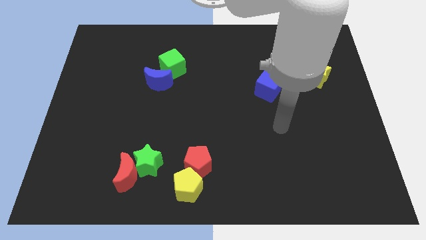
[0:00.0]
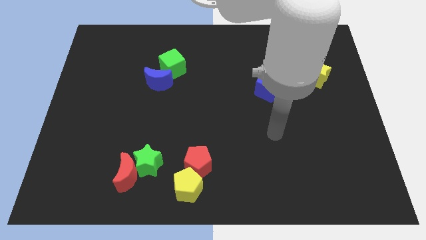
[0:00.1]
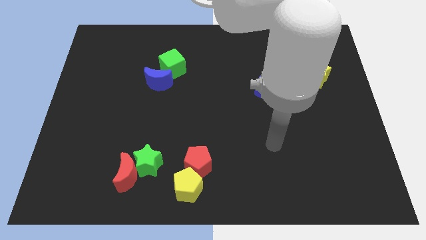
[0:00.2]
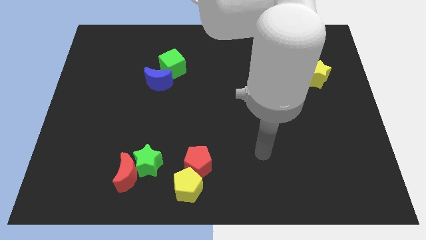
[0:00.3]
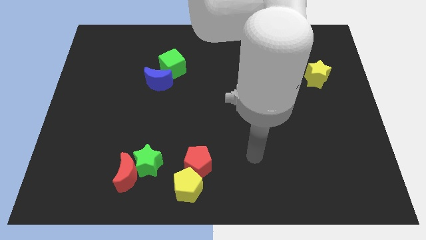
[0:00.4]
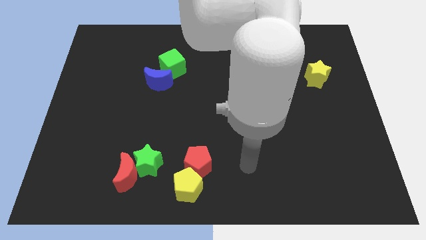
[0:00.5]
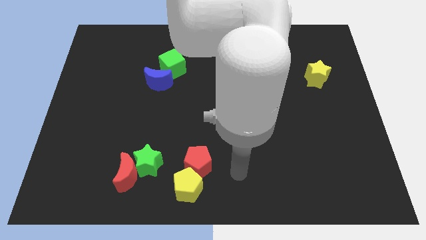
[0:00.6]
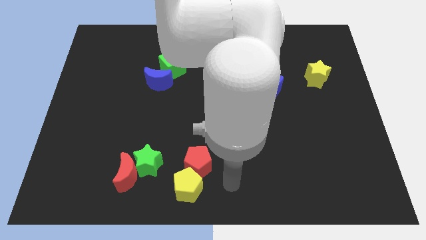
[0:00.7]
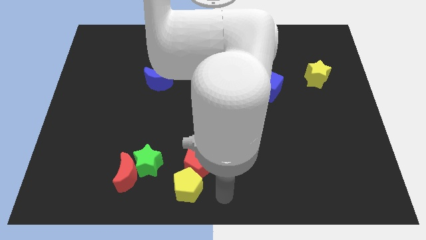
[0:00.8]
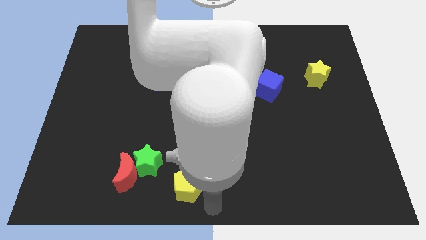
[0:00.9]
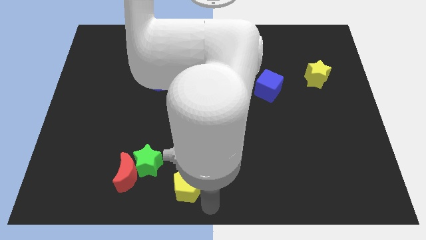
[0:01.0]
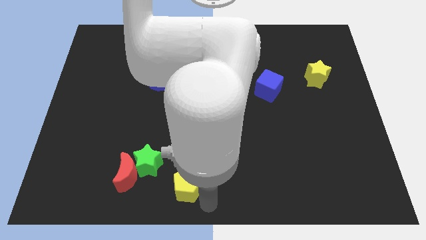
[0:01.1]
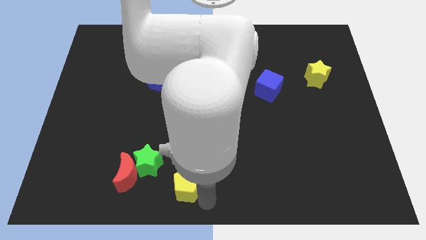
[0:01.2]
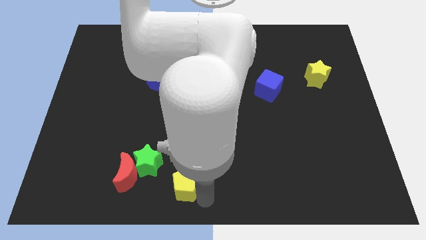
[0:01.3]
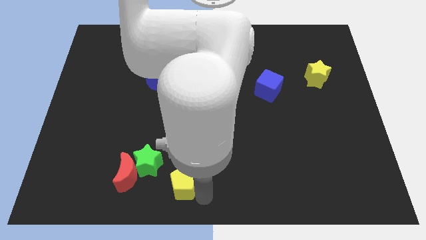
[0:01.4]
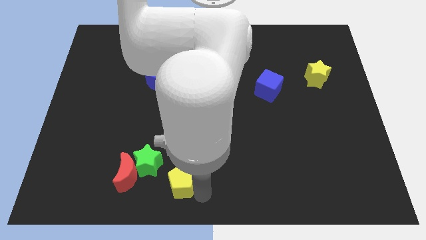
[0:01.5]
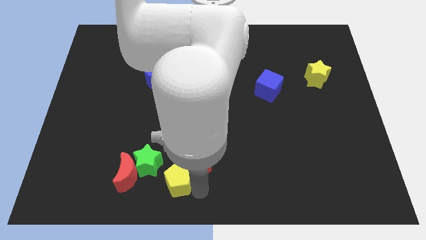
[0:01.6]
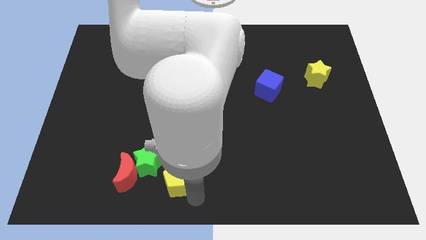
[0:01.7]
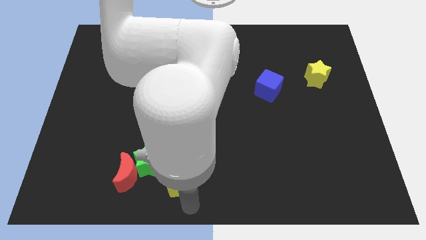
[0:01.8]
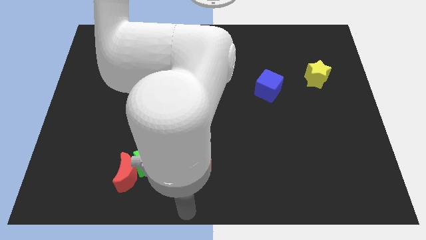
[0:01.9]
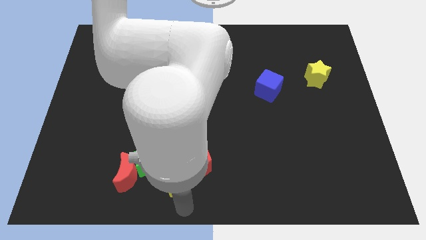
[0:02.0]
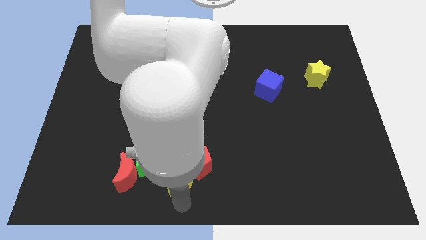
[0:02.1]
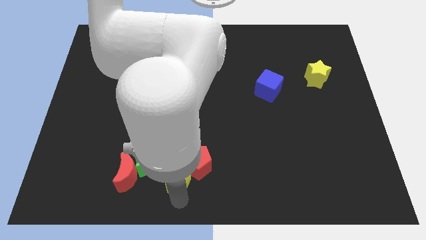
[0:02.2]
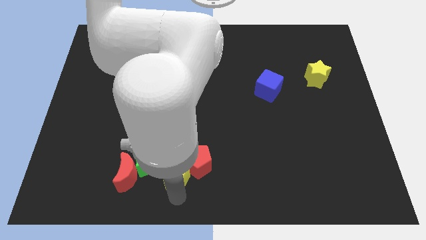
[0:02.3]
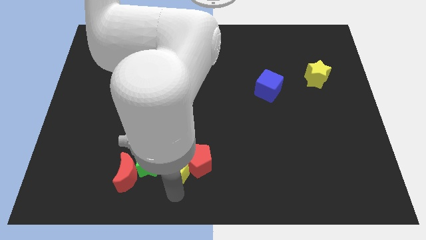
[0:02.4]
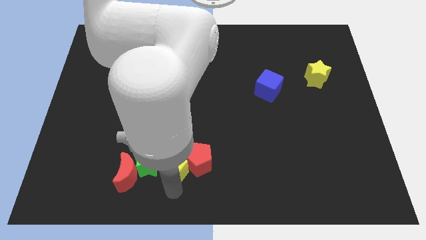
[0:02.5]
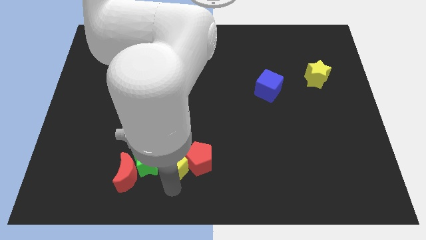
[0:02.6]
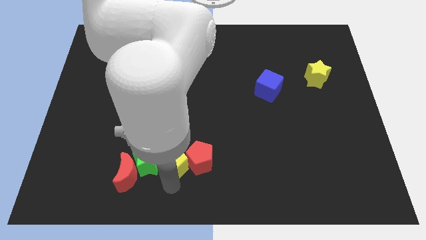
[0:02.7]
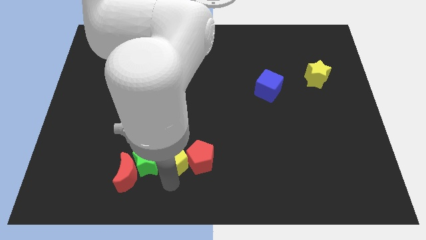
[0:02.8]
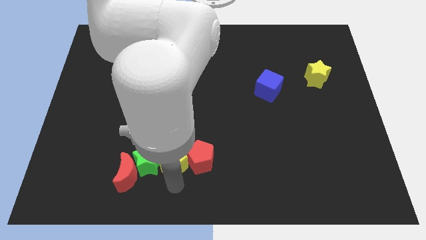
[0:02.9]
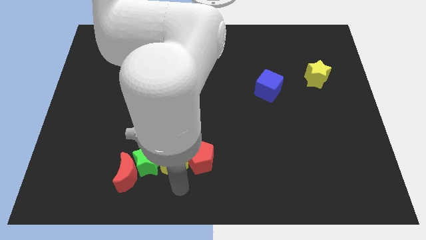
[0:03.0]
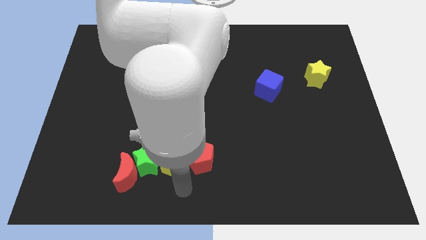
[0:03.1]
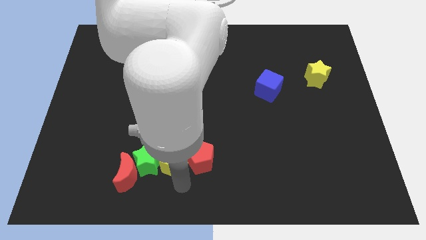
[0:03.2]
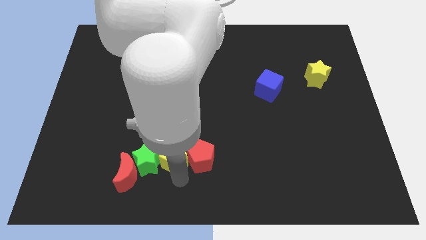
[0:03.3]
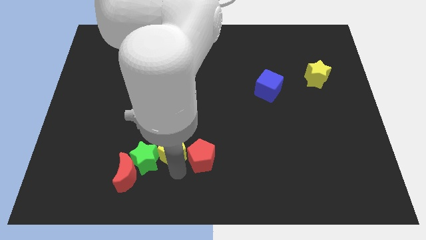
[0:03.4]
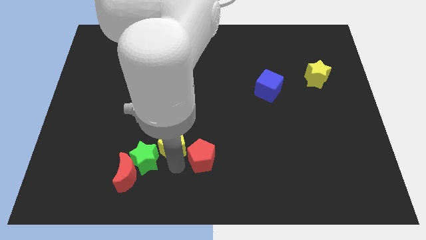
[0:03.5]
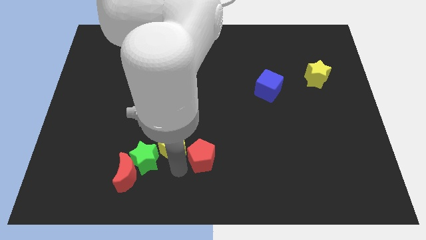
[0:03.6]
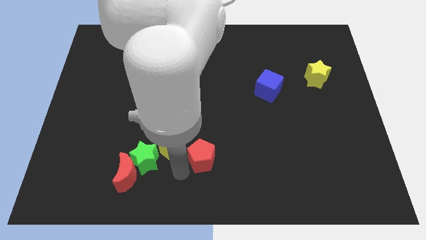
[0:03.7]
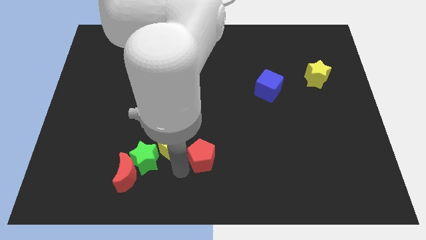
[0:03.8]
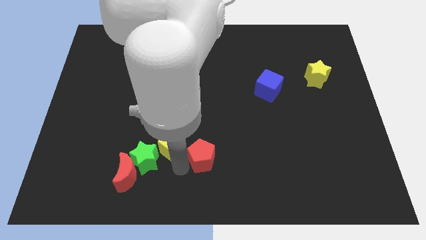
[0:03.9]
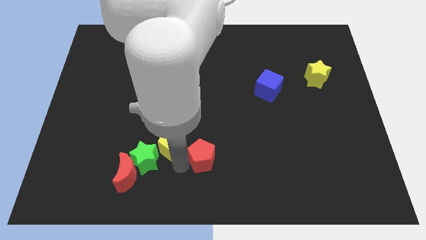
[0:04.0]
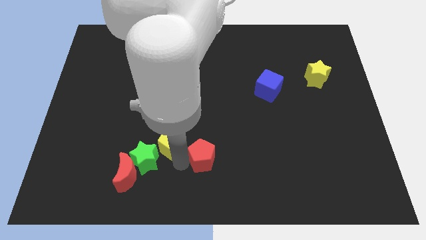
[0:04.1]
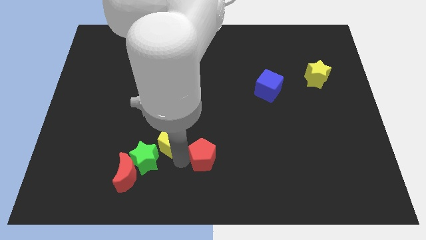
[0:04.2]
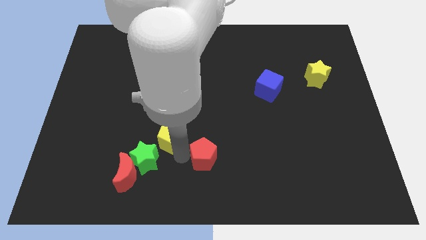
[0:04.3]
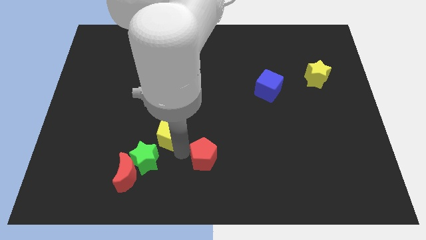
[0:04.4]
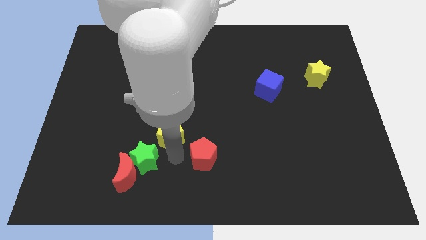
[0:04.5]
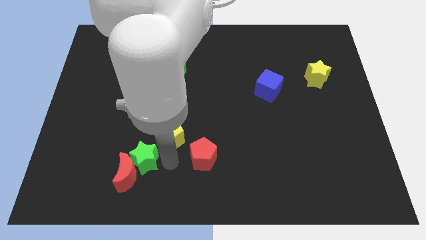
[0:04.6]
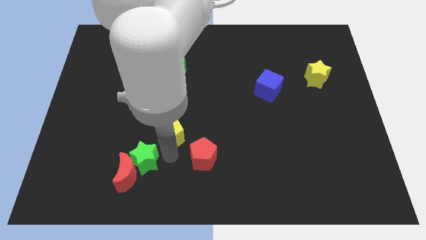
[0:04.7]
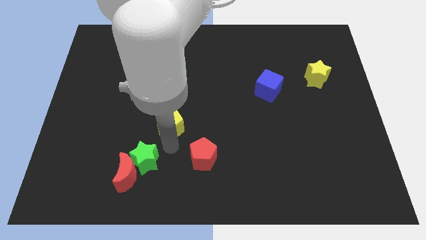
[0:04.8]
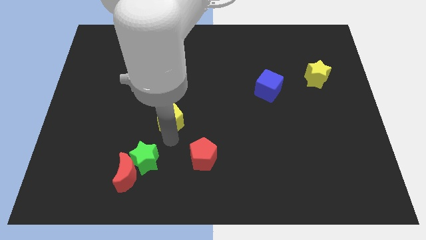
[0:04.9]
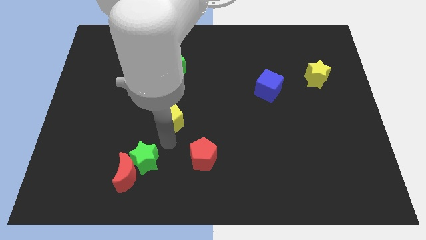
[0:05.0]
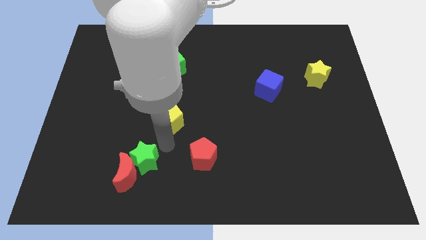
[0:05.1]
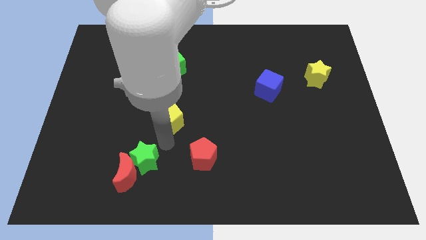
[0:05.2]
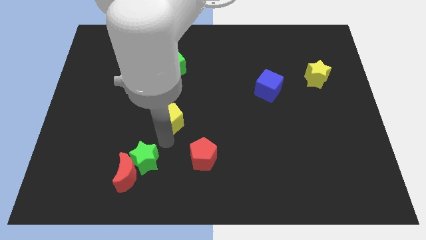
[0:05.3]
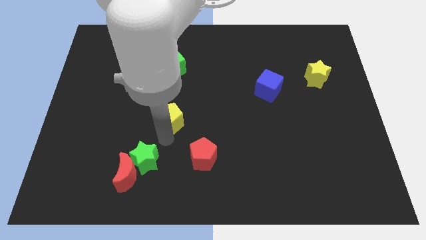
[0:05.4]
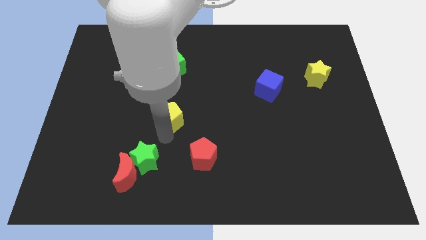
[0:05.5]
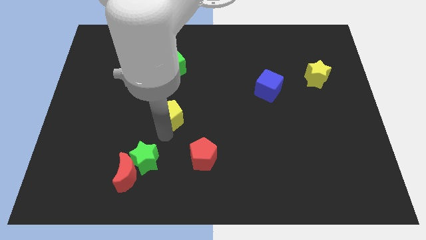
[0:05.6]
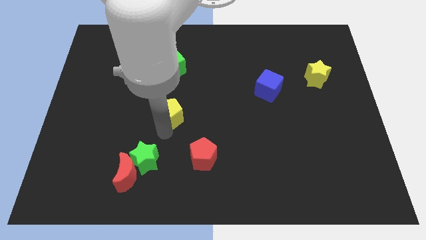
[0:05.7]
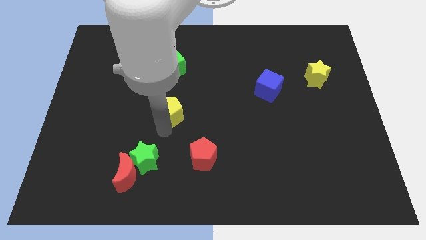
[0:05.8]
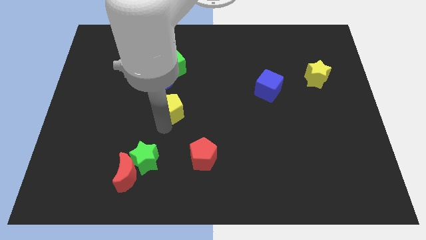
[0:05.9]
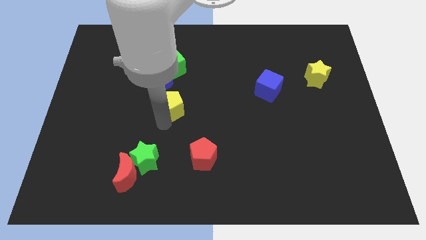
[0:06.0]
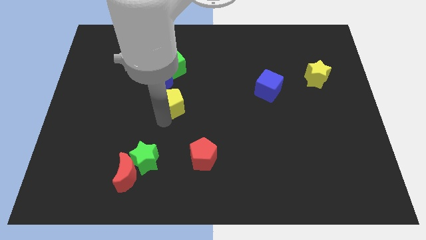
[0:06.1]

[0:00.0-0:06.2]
move the yellow pentagon up

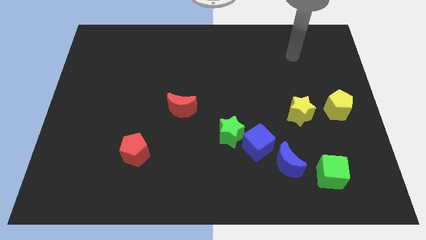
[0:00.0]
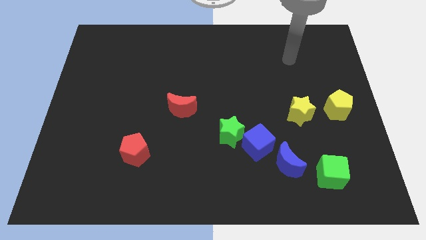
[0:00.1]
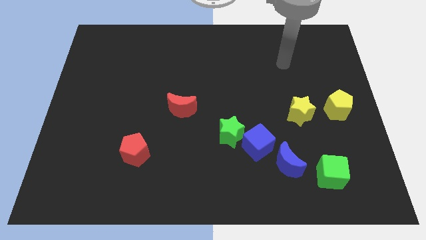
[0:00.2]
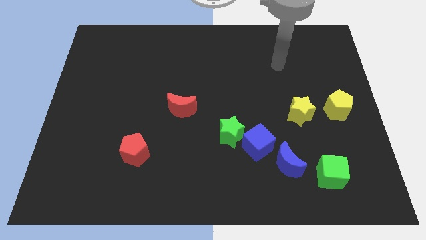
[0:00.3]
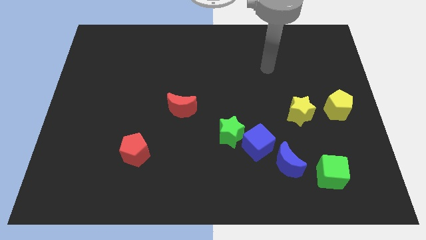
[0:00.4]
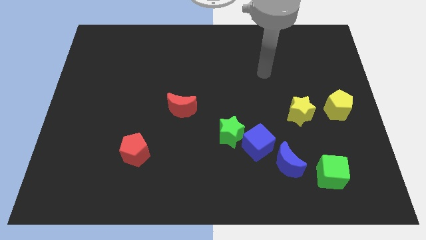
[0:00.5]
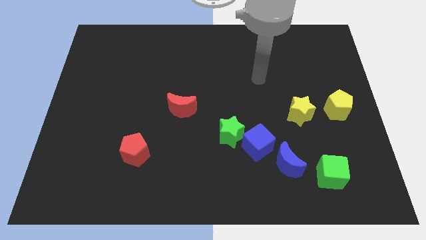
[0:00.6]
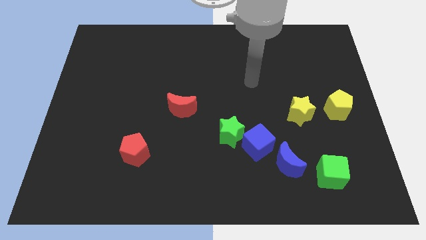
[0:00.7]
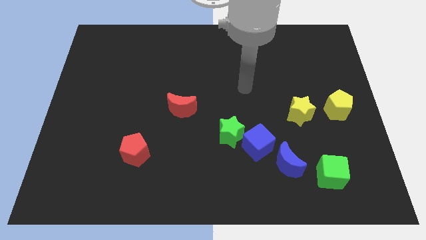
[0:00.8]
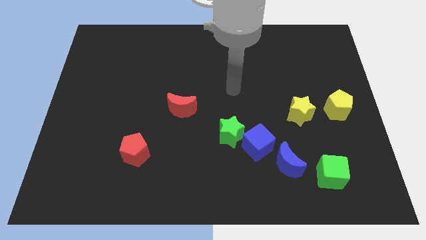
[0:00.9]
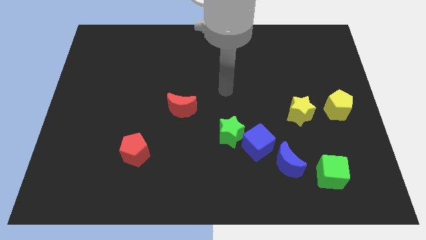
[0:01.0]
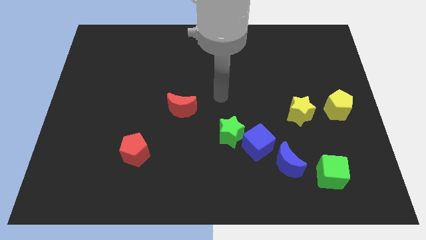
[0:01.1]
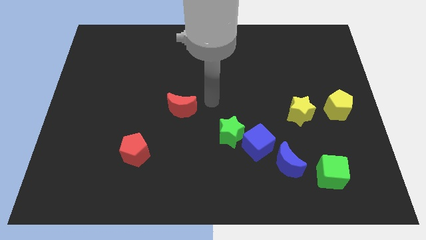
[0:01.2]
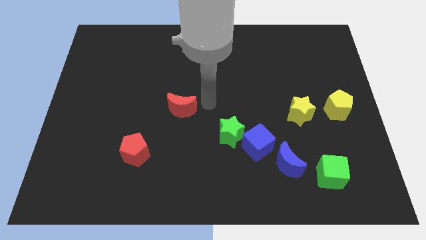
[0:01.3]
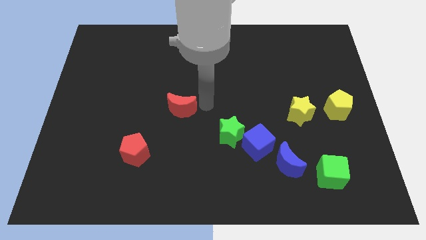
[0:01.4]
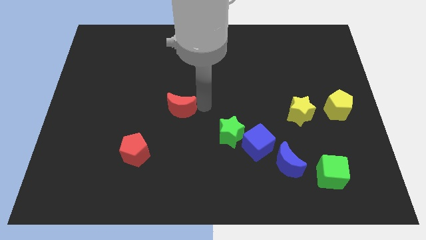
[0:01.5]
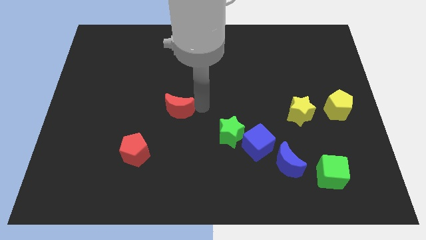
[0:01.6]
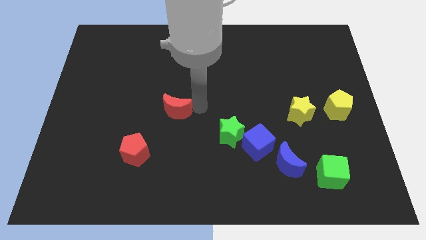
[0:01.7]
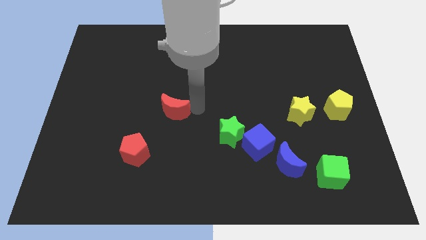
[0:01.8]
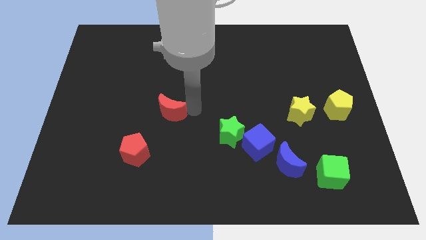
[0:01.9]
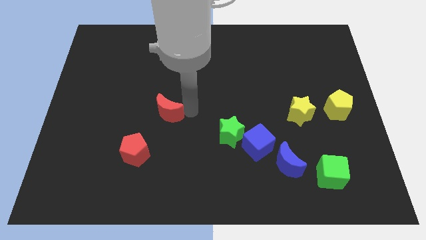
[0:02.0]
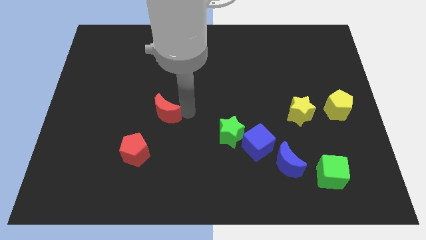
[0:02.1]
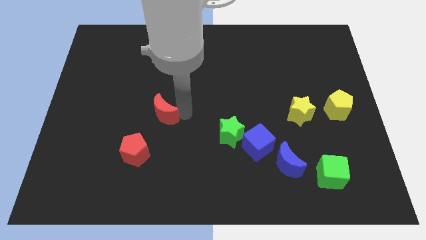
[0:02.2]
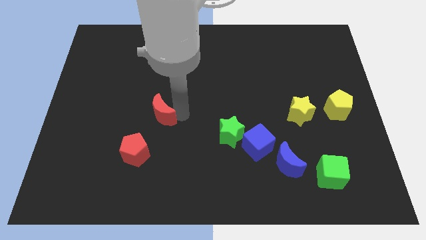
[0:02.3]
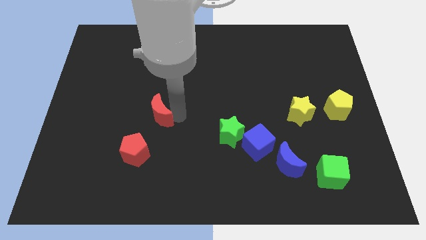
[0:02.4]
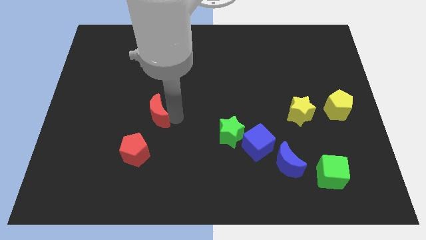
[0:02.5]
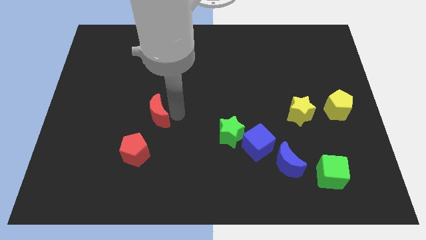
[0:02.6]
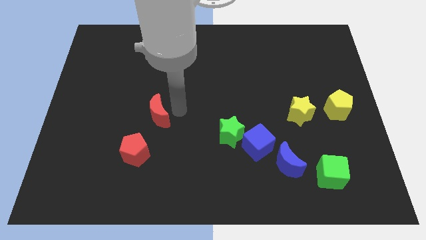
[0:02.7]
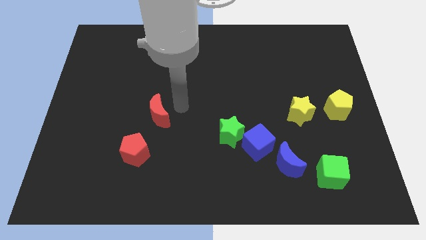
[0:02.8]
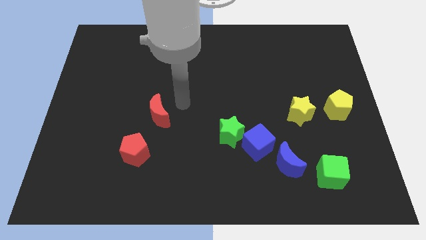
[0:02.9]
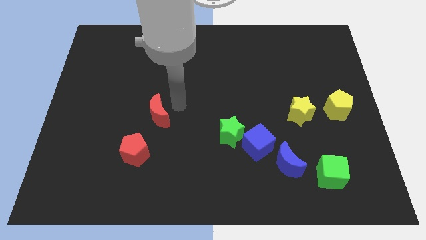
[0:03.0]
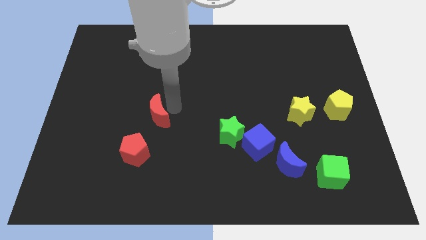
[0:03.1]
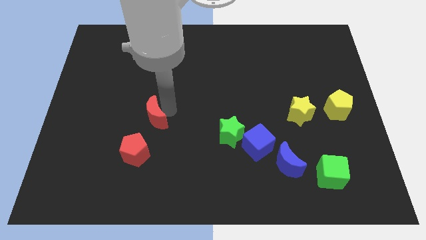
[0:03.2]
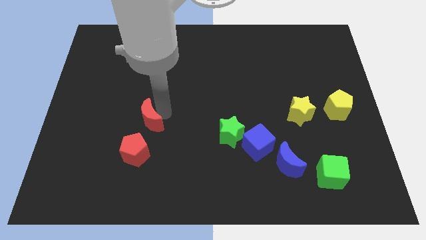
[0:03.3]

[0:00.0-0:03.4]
slide the red moon a bit downwards and then to the left
